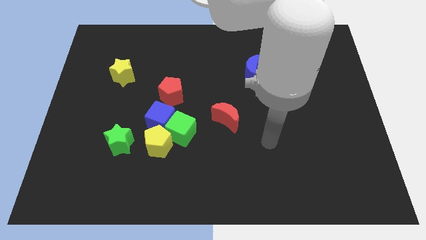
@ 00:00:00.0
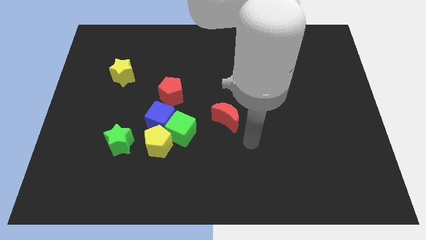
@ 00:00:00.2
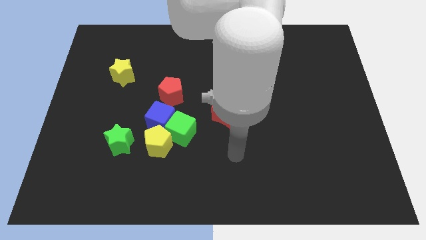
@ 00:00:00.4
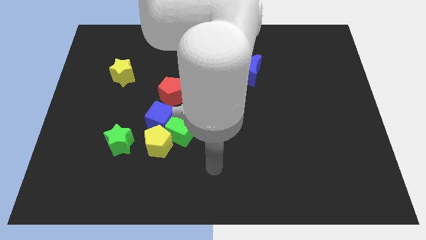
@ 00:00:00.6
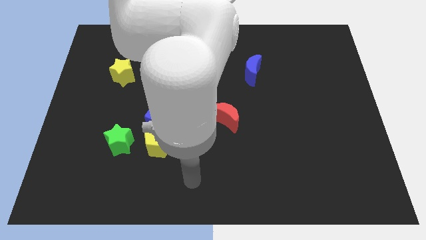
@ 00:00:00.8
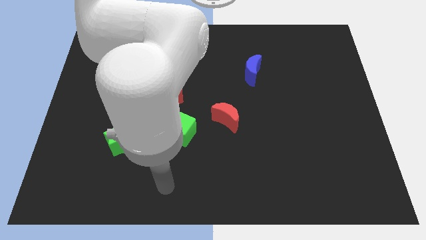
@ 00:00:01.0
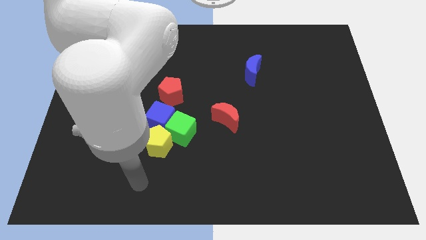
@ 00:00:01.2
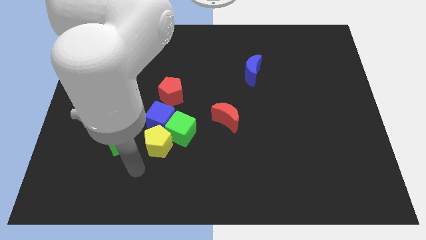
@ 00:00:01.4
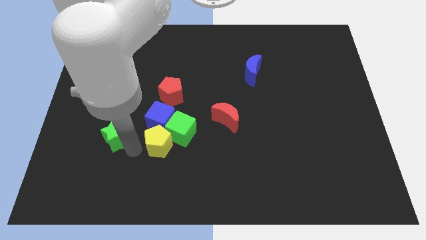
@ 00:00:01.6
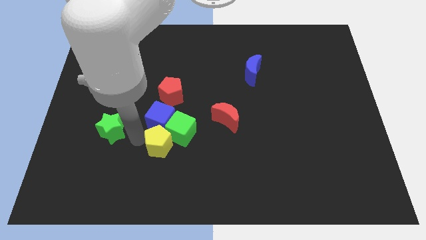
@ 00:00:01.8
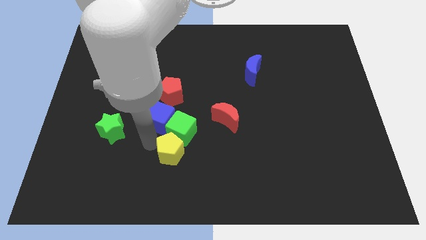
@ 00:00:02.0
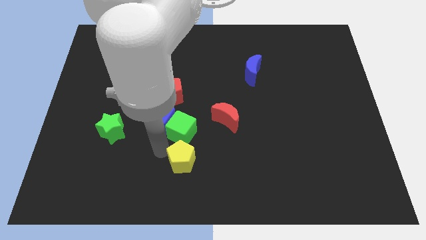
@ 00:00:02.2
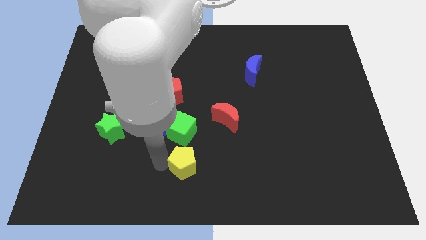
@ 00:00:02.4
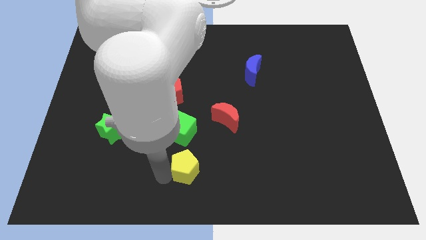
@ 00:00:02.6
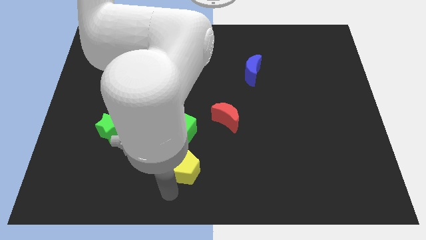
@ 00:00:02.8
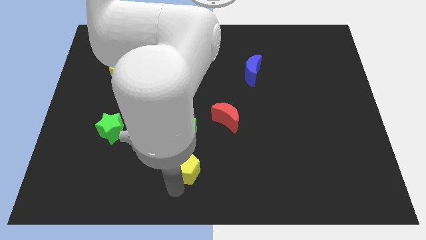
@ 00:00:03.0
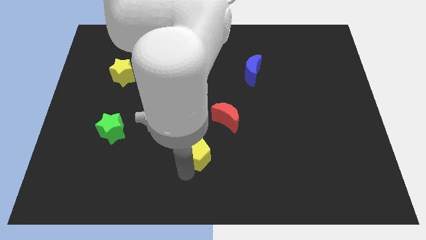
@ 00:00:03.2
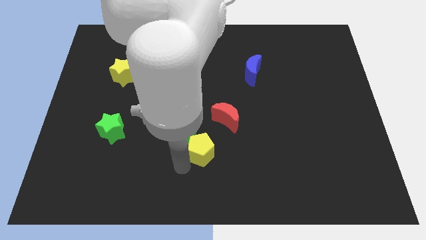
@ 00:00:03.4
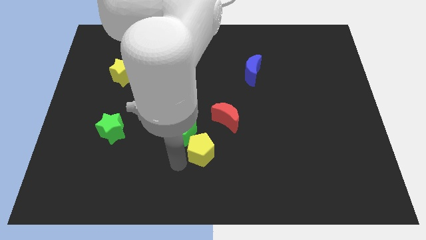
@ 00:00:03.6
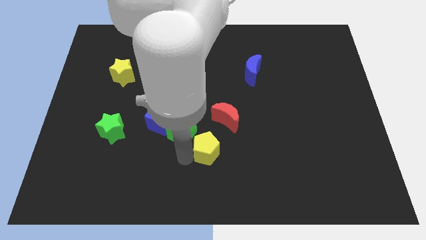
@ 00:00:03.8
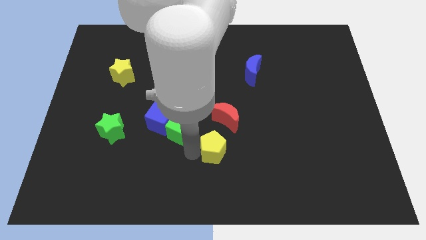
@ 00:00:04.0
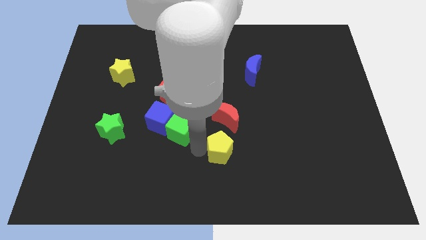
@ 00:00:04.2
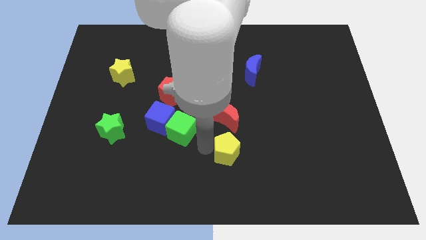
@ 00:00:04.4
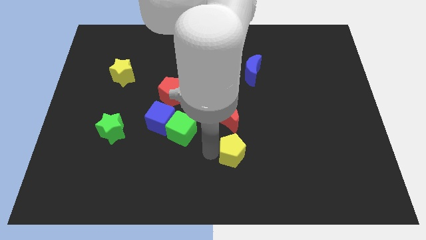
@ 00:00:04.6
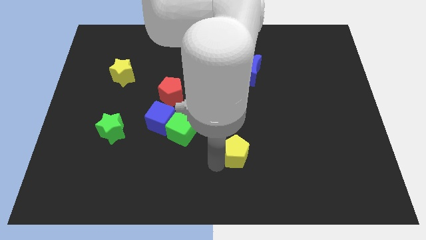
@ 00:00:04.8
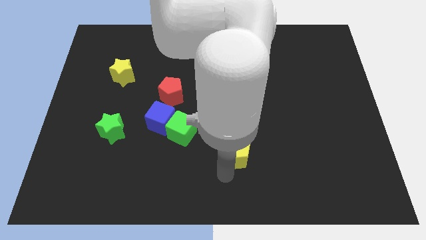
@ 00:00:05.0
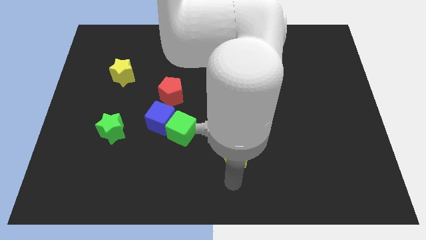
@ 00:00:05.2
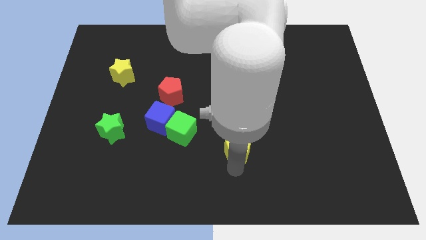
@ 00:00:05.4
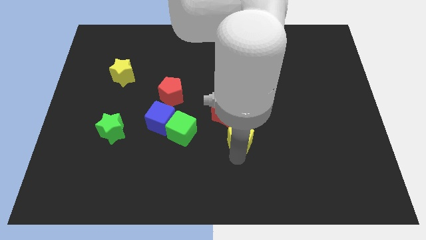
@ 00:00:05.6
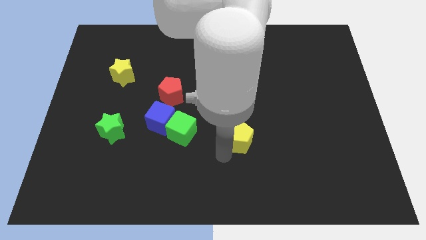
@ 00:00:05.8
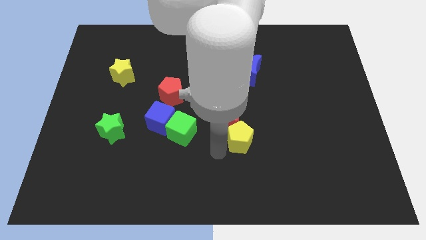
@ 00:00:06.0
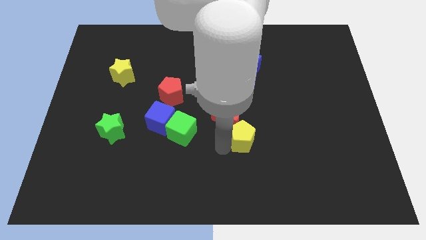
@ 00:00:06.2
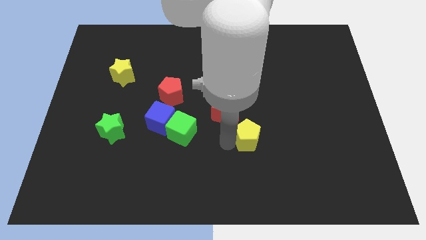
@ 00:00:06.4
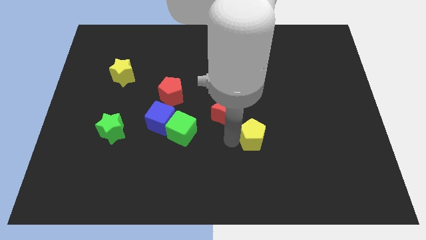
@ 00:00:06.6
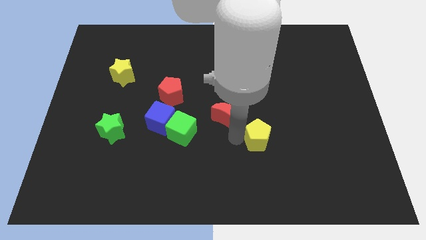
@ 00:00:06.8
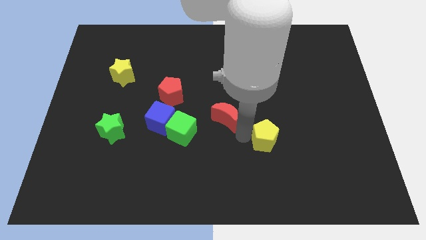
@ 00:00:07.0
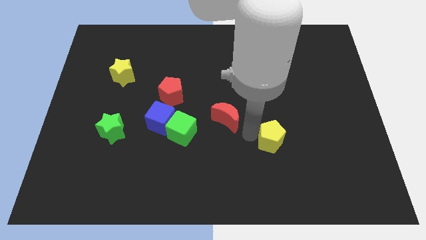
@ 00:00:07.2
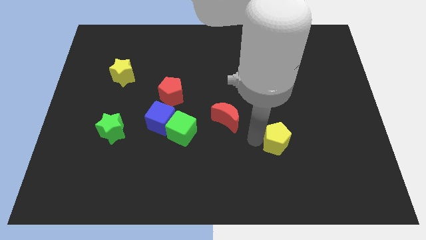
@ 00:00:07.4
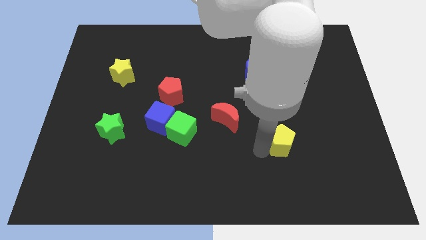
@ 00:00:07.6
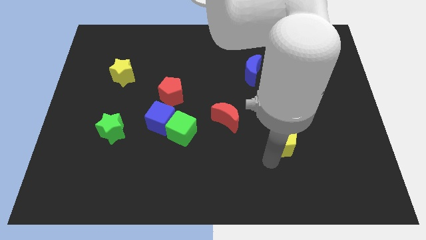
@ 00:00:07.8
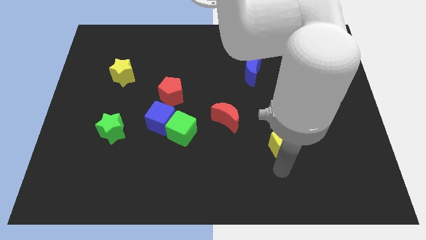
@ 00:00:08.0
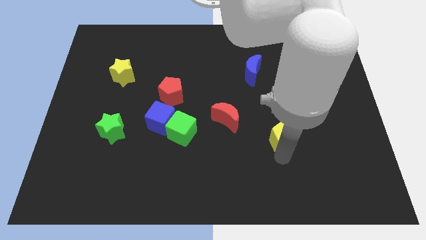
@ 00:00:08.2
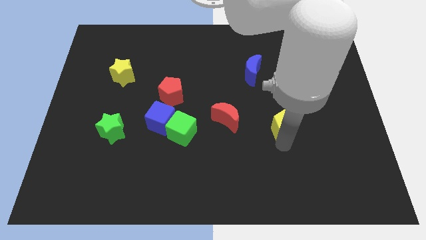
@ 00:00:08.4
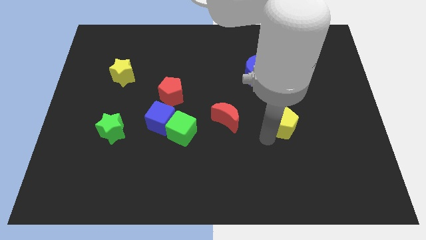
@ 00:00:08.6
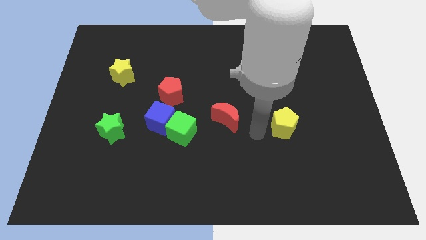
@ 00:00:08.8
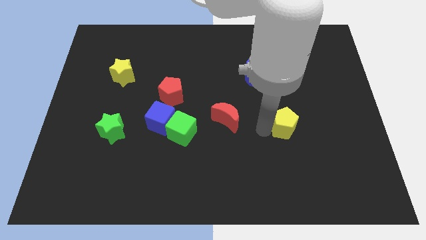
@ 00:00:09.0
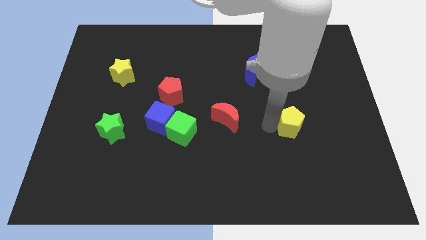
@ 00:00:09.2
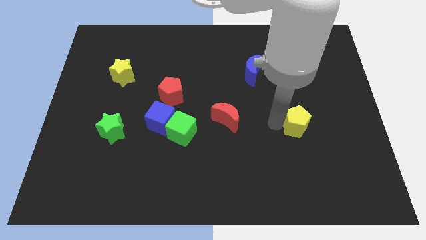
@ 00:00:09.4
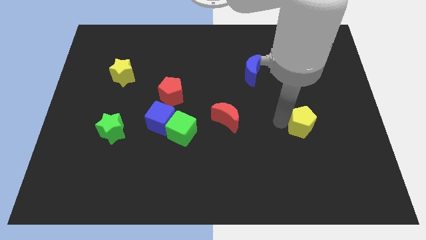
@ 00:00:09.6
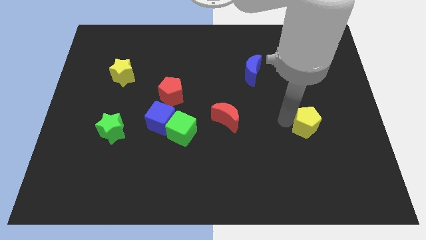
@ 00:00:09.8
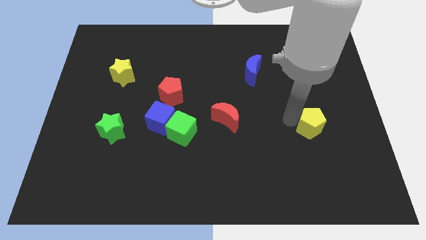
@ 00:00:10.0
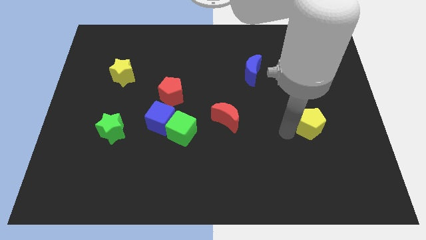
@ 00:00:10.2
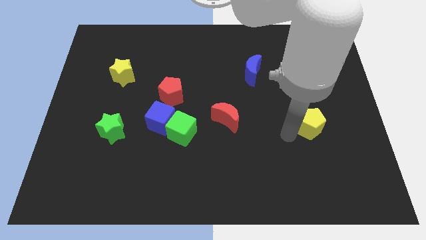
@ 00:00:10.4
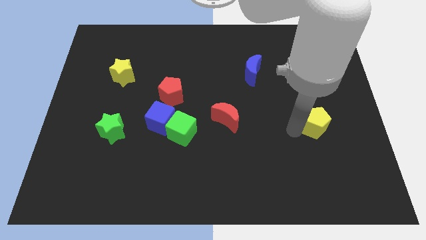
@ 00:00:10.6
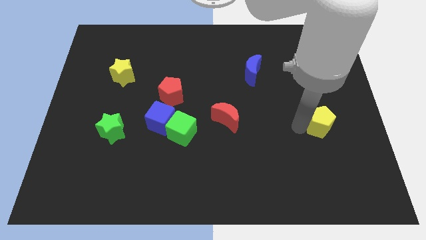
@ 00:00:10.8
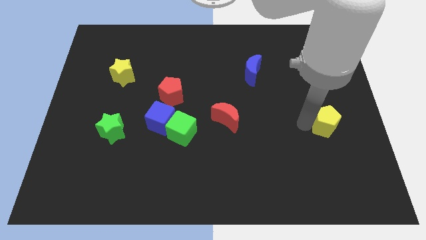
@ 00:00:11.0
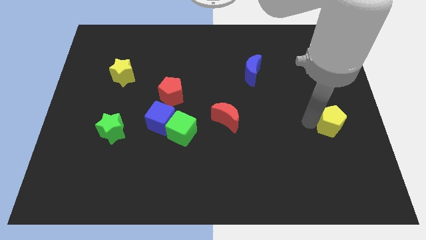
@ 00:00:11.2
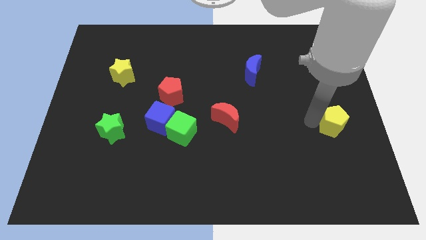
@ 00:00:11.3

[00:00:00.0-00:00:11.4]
move the yellow pentagon to the right side

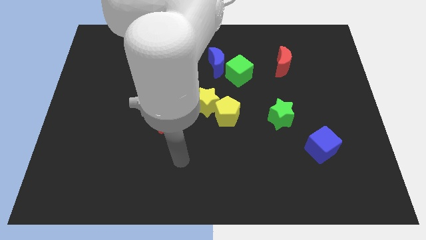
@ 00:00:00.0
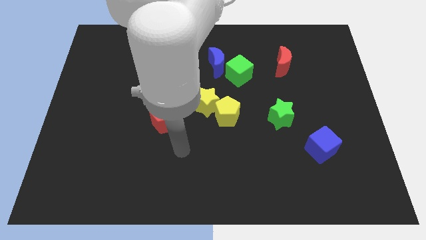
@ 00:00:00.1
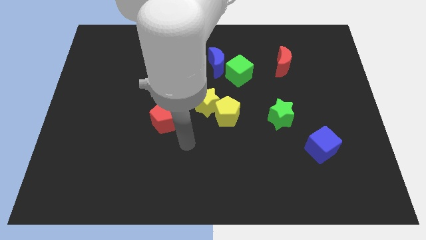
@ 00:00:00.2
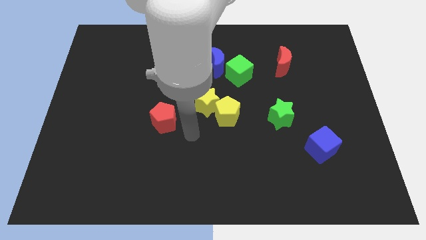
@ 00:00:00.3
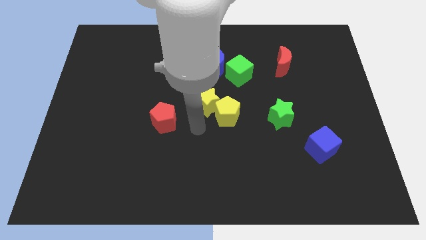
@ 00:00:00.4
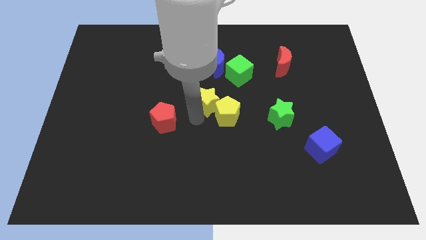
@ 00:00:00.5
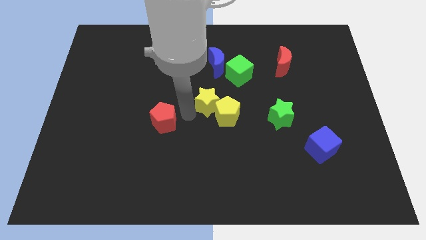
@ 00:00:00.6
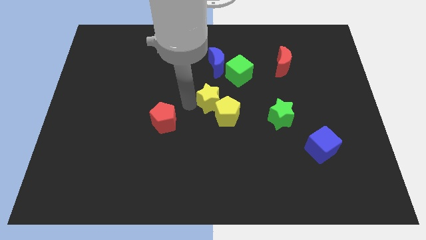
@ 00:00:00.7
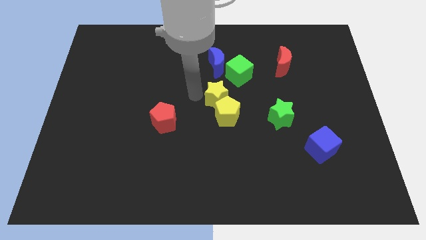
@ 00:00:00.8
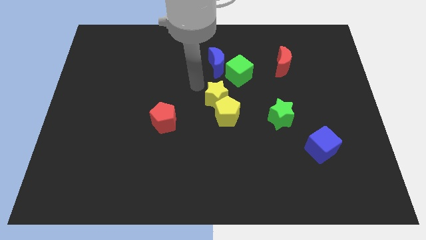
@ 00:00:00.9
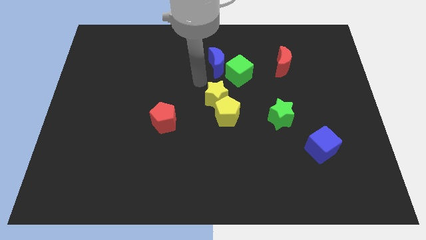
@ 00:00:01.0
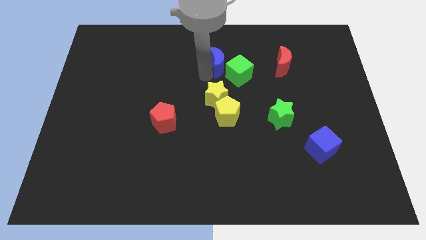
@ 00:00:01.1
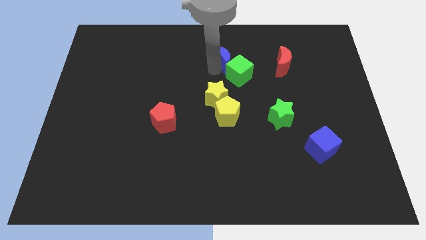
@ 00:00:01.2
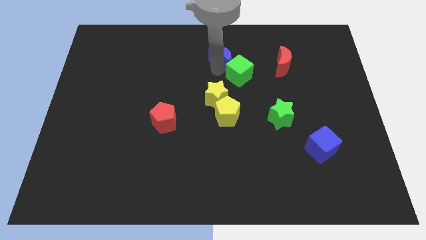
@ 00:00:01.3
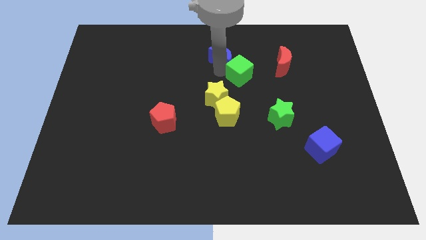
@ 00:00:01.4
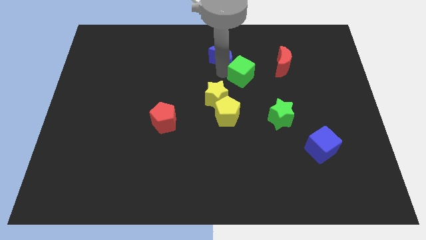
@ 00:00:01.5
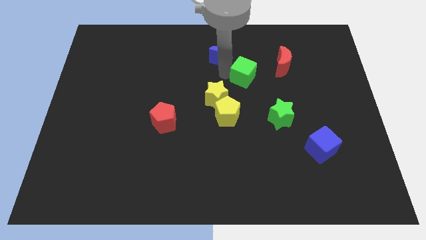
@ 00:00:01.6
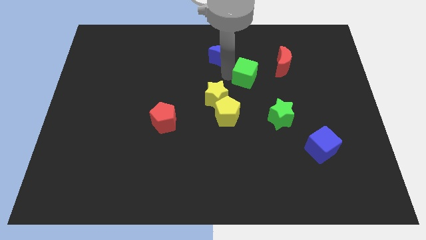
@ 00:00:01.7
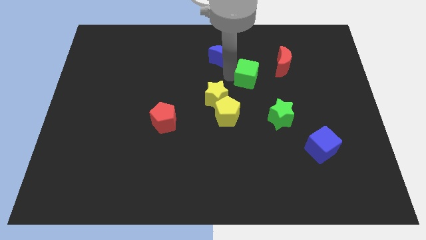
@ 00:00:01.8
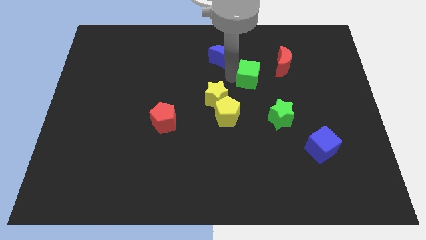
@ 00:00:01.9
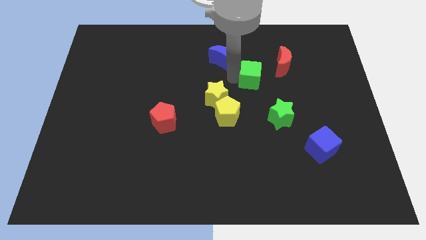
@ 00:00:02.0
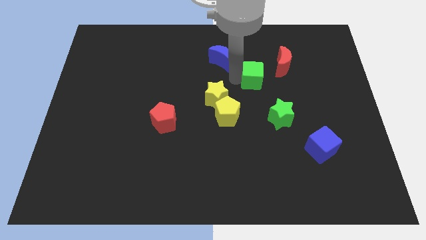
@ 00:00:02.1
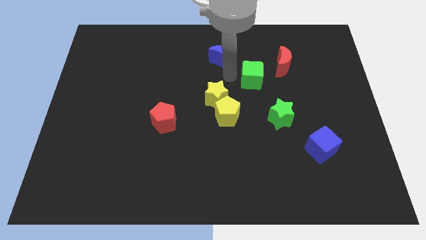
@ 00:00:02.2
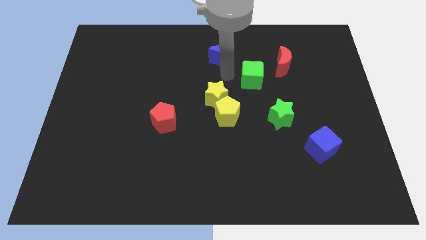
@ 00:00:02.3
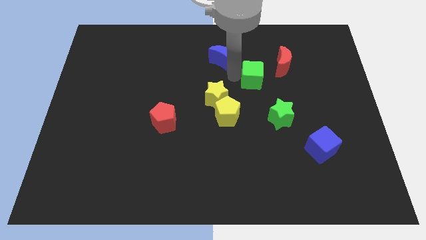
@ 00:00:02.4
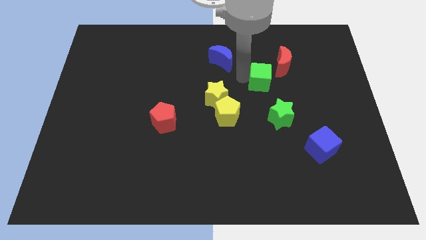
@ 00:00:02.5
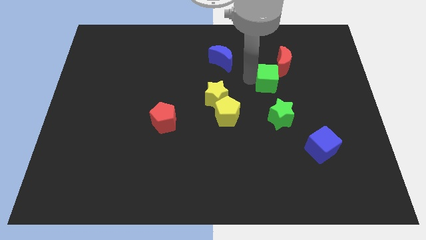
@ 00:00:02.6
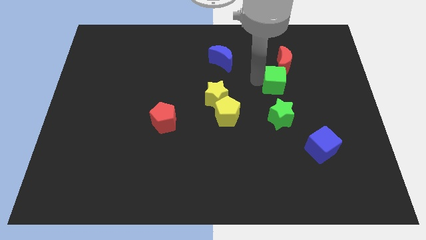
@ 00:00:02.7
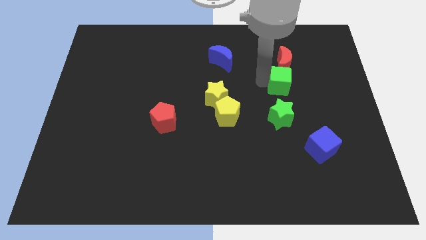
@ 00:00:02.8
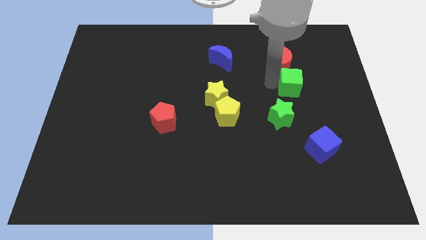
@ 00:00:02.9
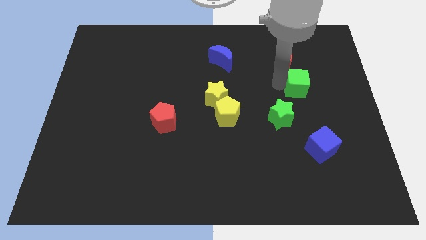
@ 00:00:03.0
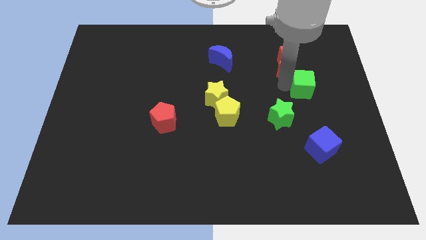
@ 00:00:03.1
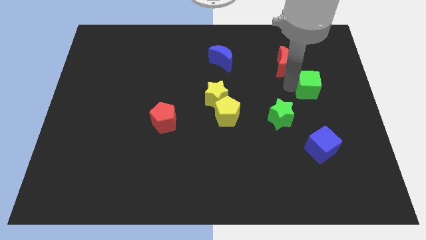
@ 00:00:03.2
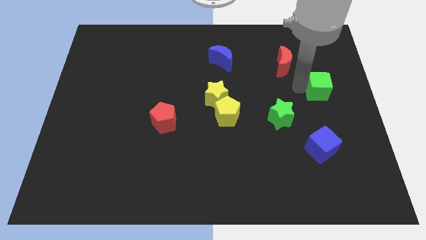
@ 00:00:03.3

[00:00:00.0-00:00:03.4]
push the green cube to the right side of the board
